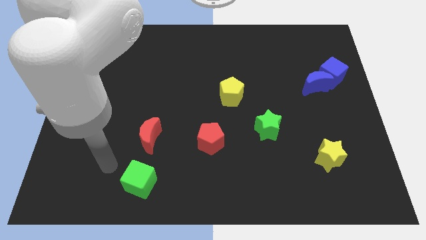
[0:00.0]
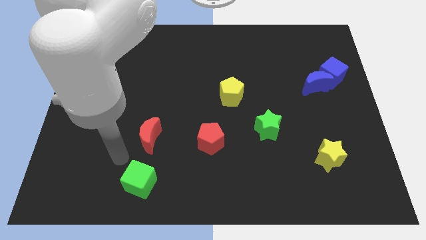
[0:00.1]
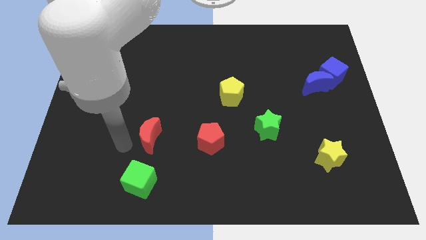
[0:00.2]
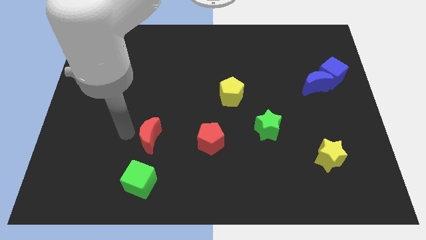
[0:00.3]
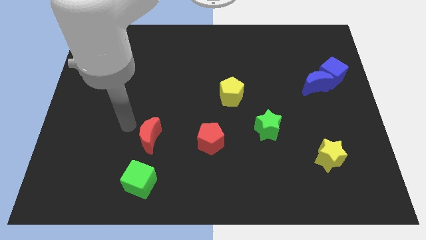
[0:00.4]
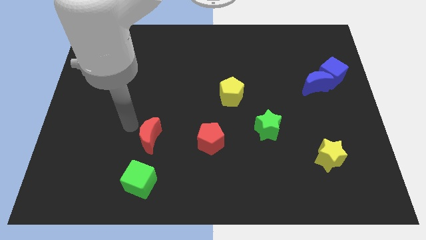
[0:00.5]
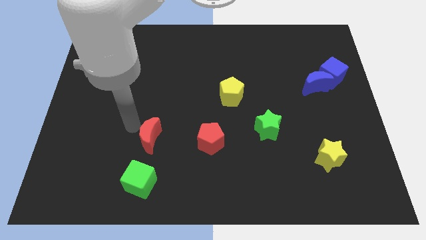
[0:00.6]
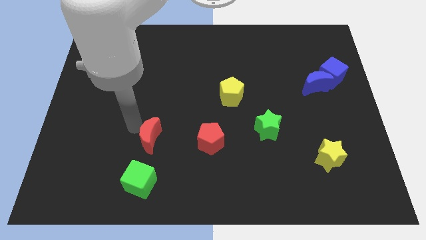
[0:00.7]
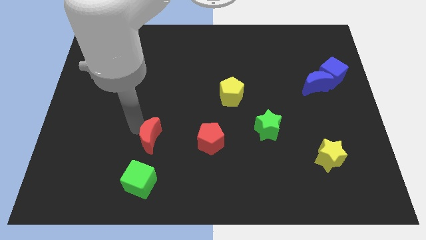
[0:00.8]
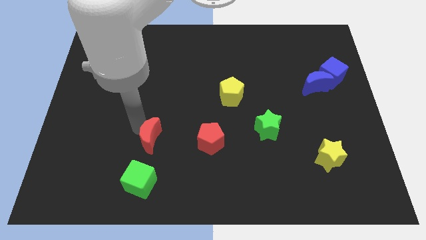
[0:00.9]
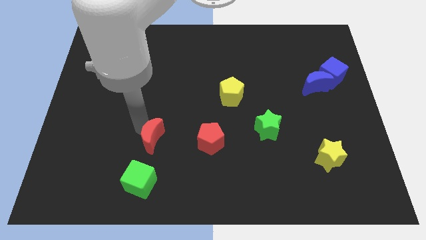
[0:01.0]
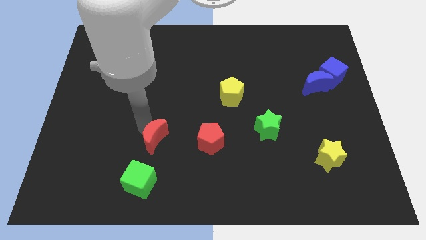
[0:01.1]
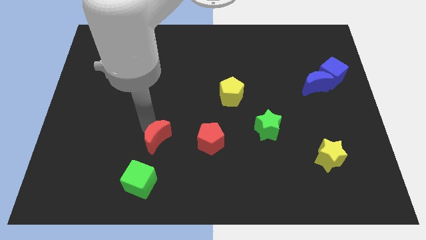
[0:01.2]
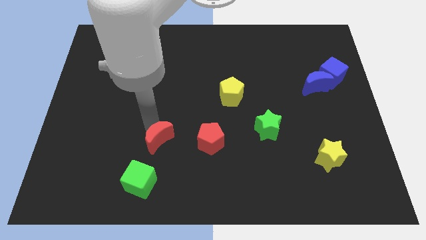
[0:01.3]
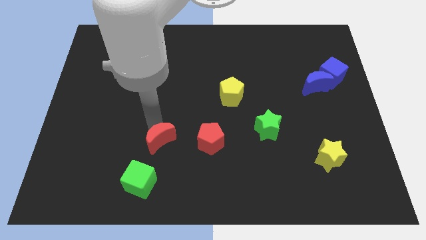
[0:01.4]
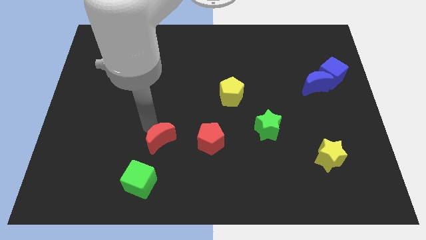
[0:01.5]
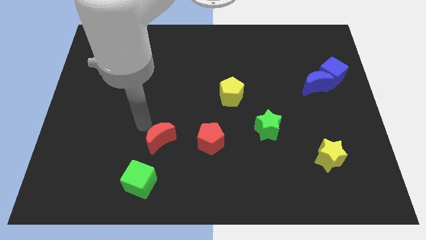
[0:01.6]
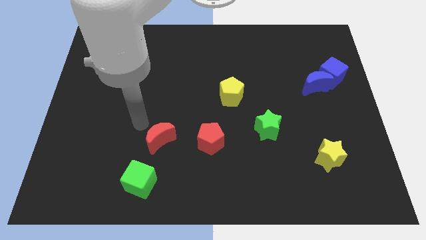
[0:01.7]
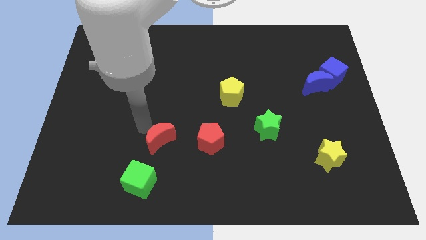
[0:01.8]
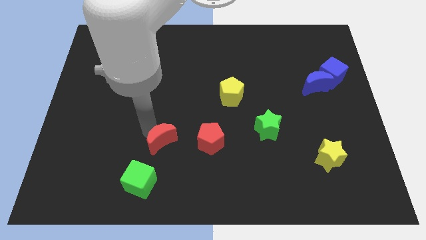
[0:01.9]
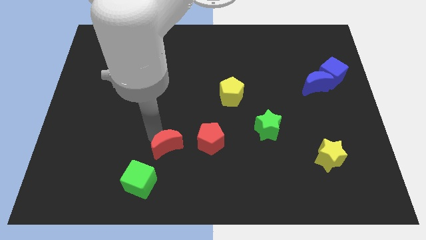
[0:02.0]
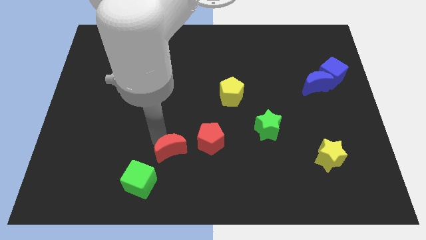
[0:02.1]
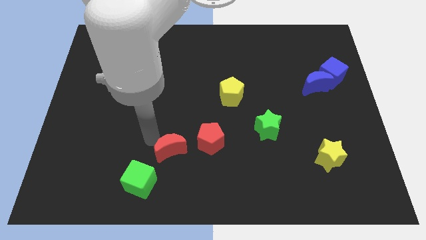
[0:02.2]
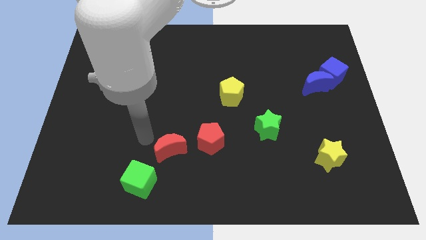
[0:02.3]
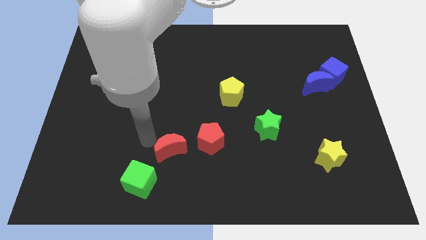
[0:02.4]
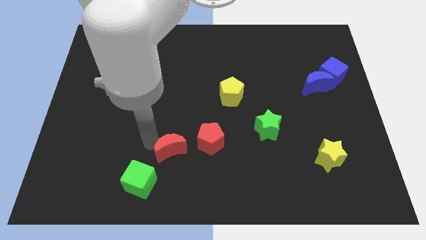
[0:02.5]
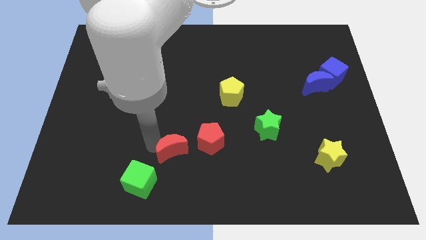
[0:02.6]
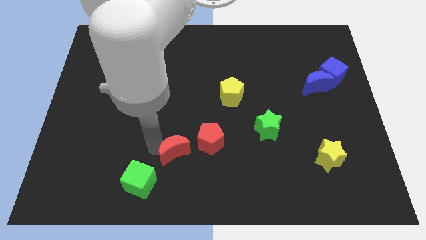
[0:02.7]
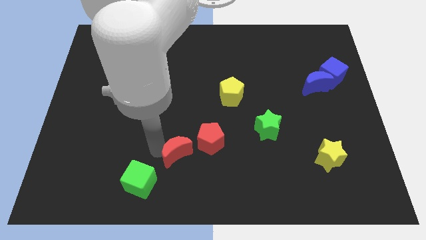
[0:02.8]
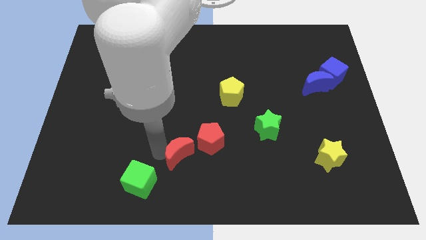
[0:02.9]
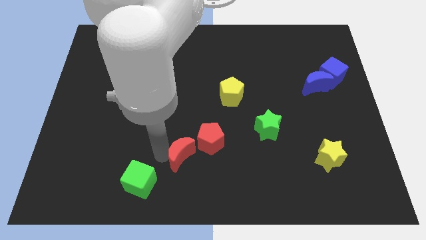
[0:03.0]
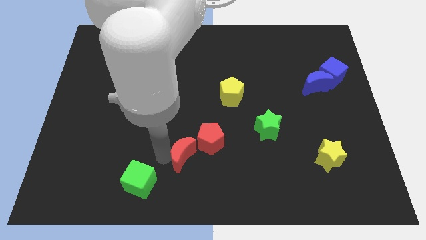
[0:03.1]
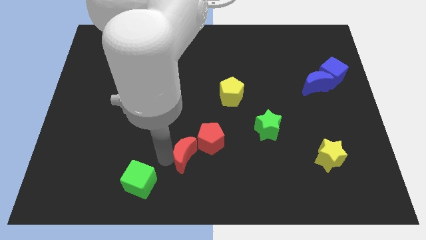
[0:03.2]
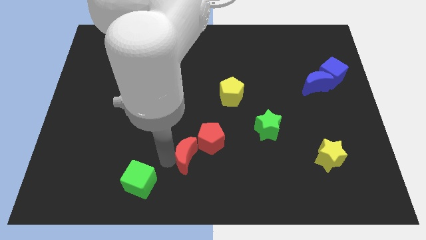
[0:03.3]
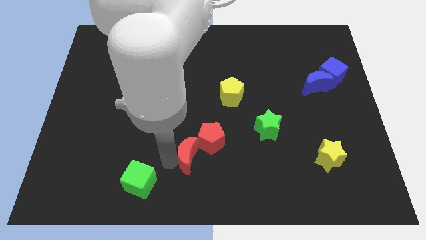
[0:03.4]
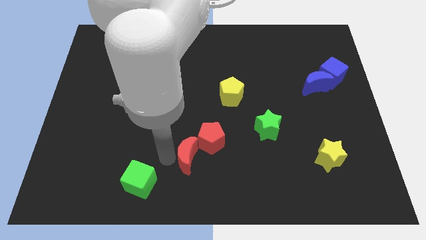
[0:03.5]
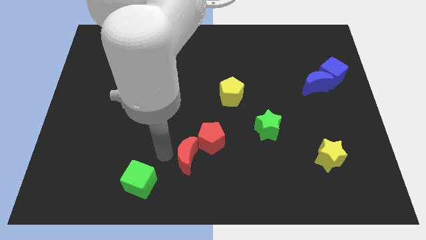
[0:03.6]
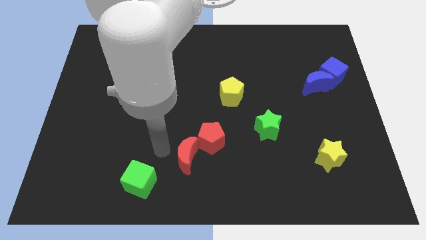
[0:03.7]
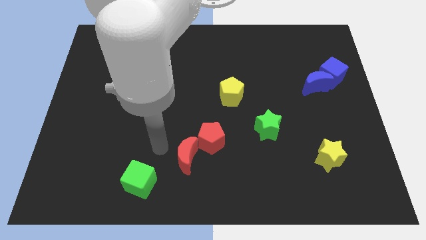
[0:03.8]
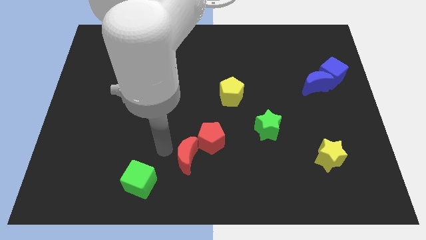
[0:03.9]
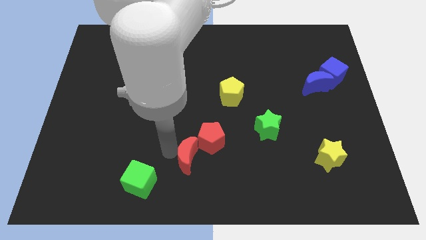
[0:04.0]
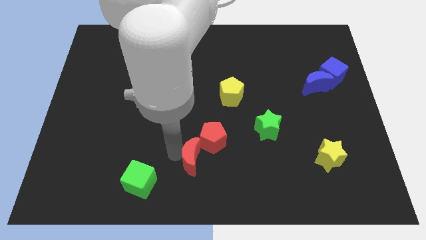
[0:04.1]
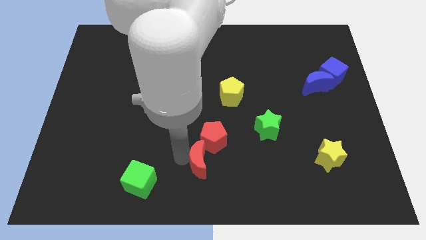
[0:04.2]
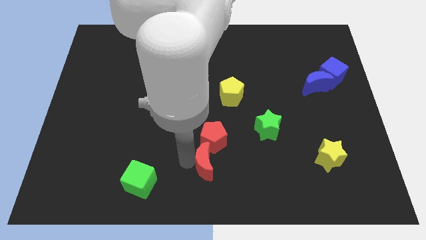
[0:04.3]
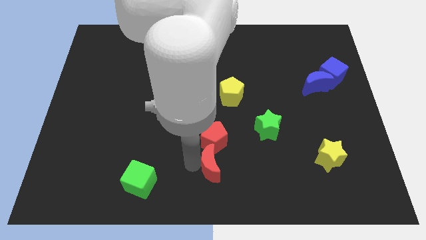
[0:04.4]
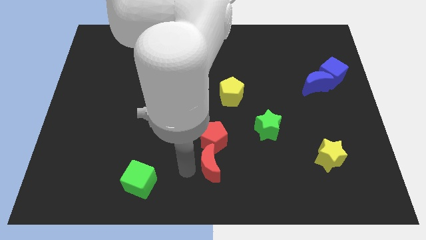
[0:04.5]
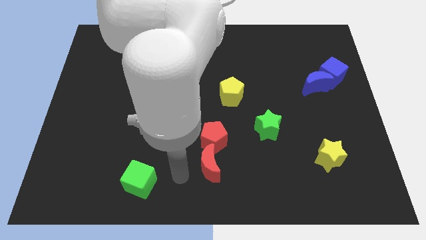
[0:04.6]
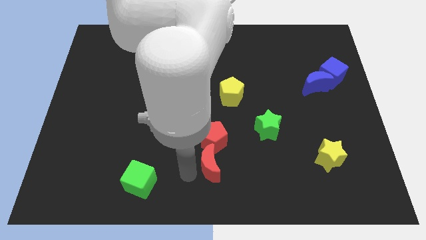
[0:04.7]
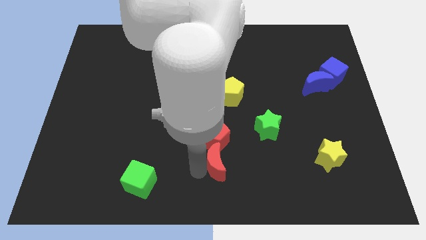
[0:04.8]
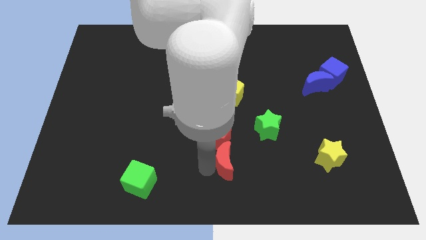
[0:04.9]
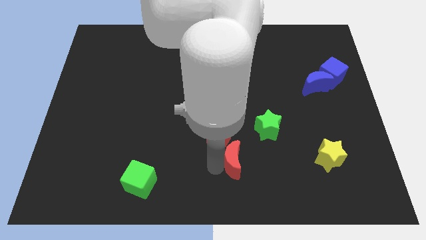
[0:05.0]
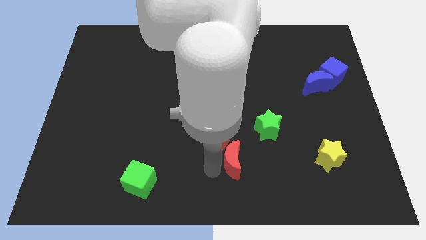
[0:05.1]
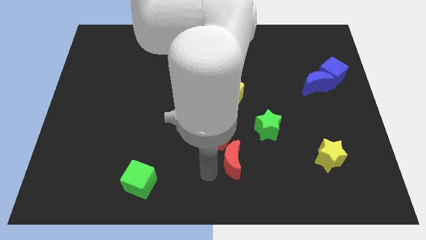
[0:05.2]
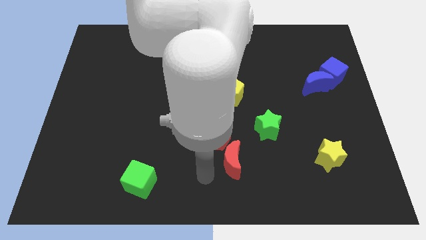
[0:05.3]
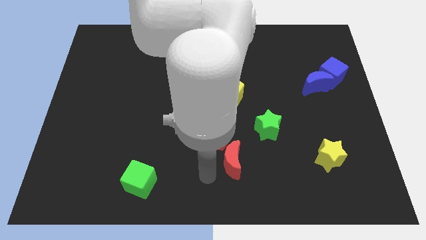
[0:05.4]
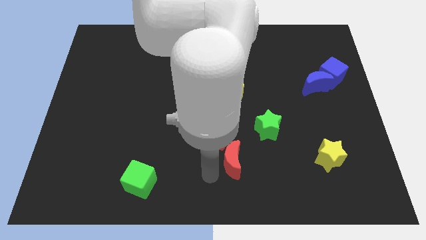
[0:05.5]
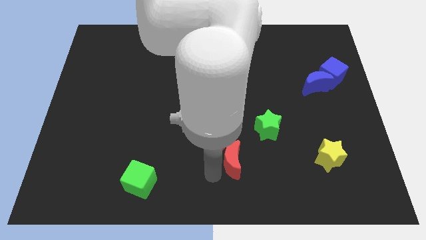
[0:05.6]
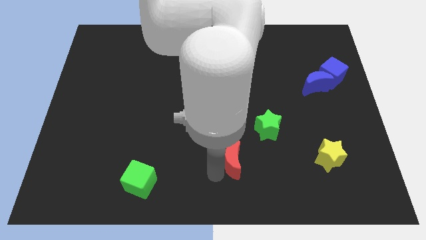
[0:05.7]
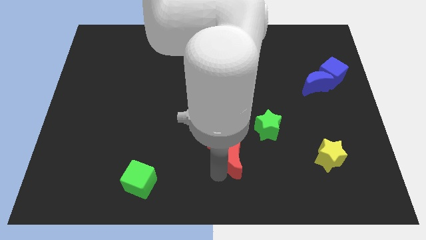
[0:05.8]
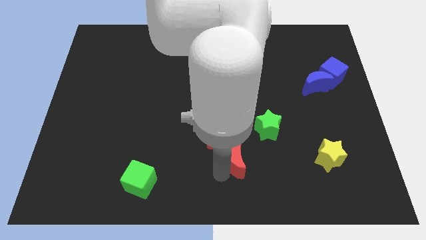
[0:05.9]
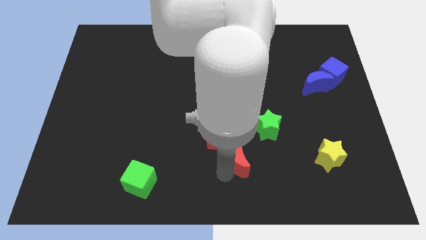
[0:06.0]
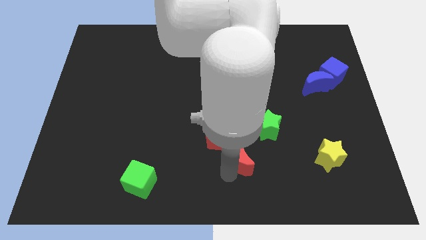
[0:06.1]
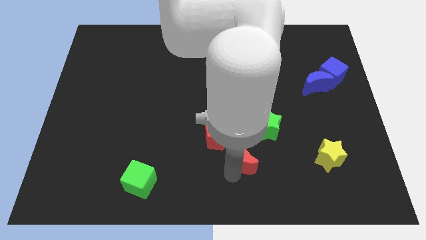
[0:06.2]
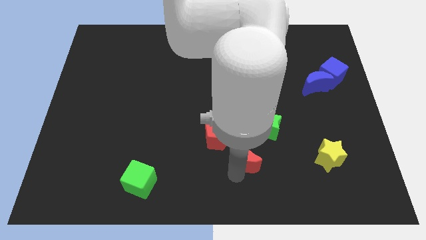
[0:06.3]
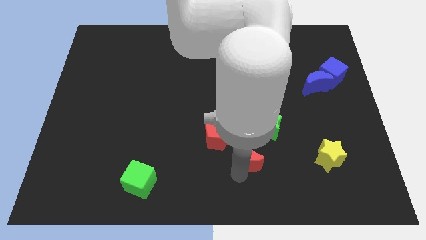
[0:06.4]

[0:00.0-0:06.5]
move the red moon to the right

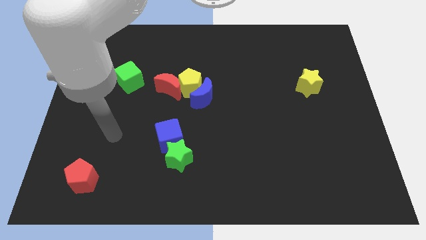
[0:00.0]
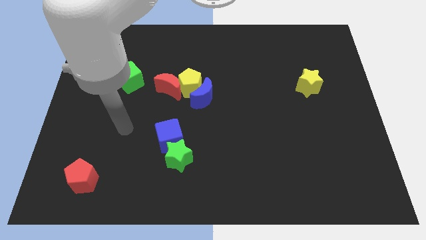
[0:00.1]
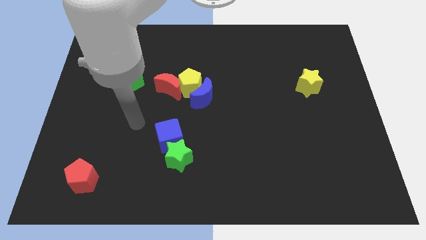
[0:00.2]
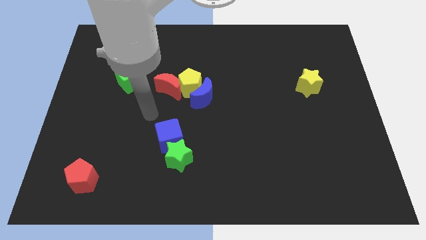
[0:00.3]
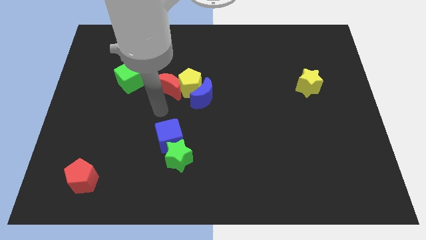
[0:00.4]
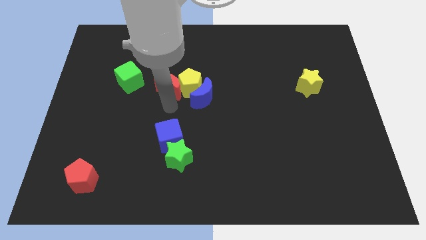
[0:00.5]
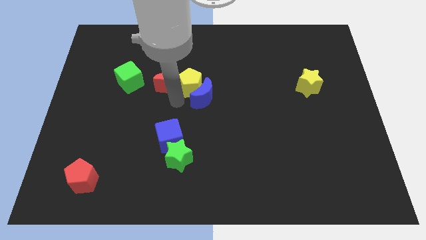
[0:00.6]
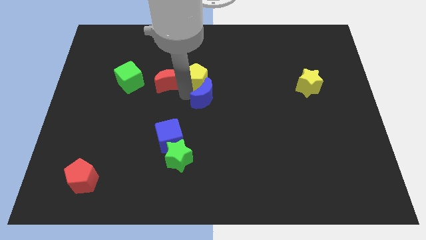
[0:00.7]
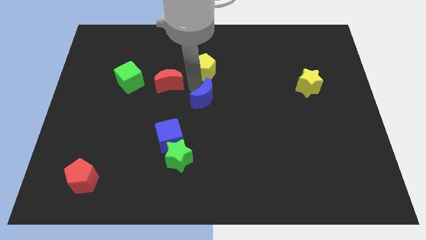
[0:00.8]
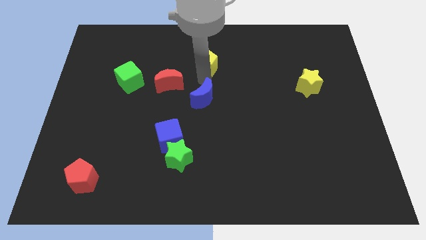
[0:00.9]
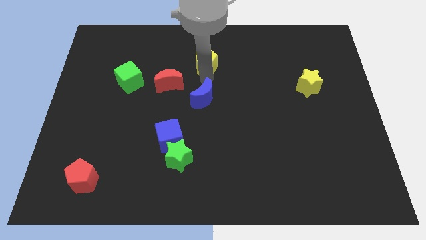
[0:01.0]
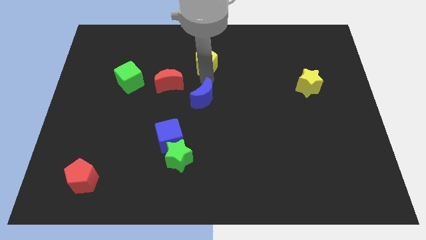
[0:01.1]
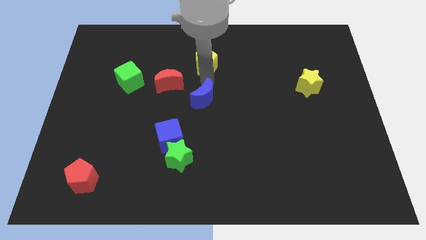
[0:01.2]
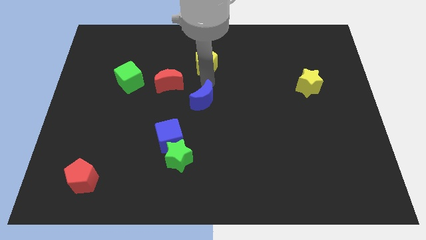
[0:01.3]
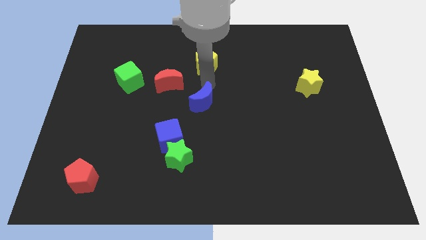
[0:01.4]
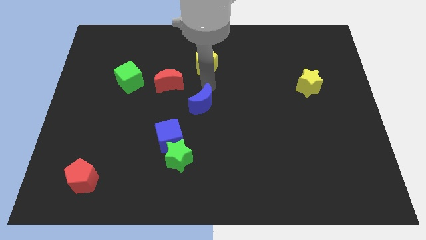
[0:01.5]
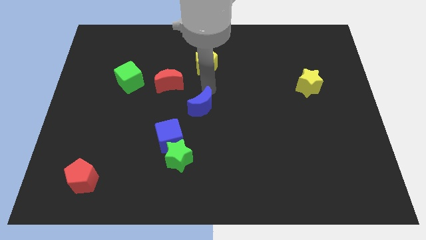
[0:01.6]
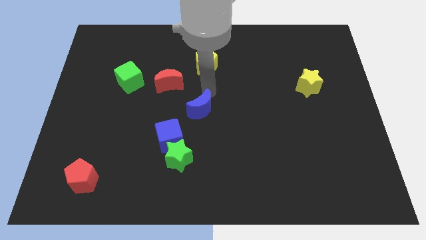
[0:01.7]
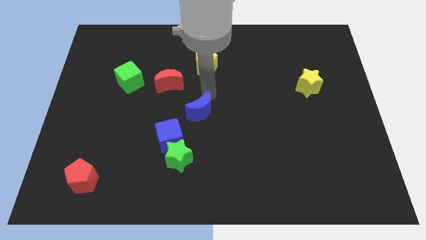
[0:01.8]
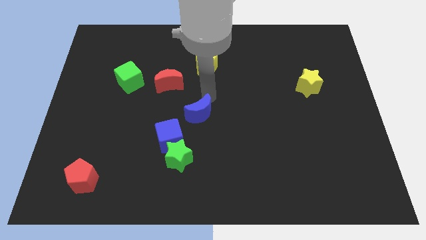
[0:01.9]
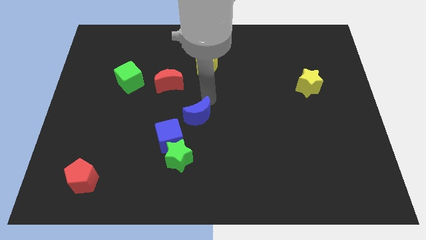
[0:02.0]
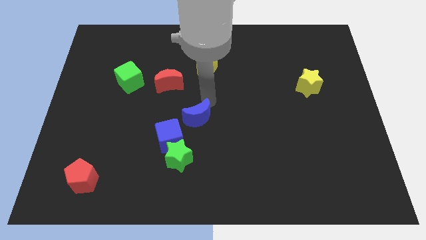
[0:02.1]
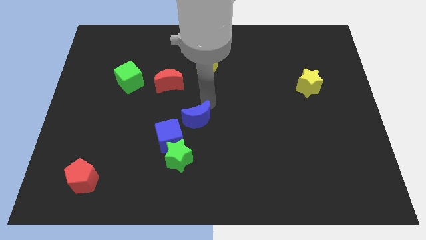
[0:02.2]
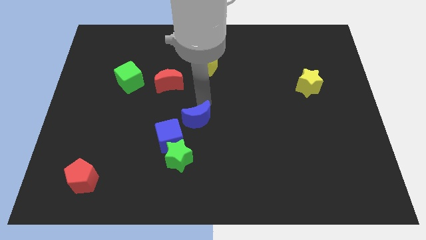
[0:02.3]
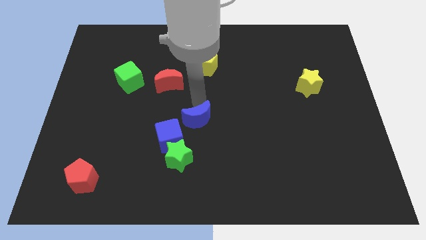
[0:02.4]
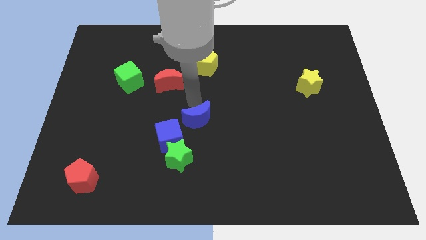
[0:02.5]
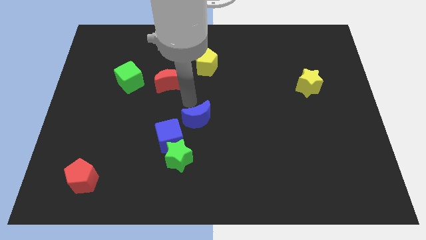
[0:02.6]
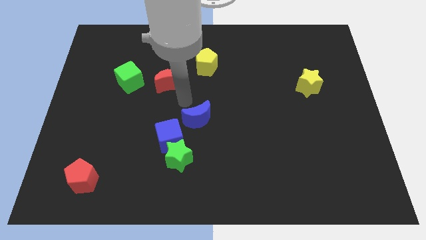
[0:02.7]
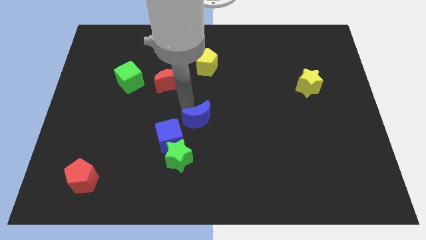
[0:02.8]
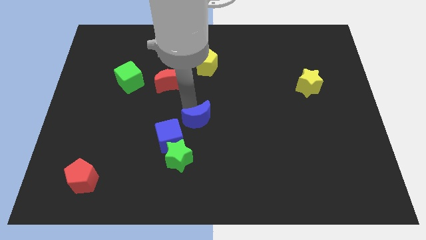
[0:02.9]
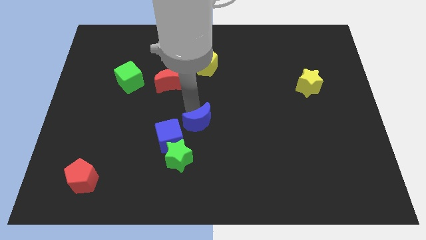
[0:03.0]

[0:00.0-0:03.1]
push the blue moon somewhat down
